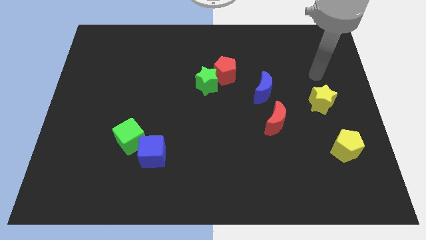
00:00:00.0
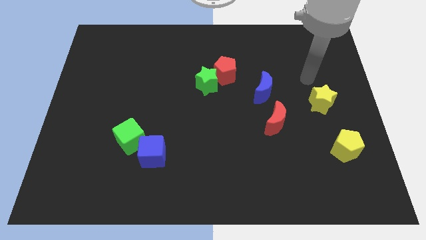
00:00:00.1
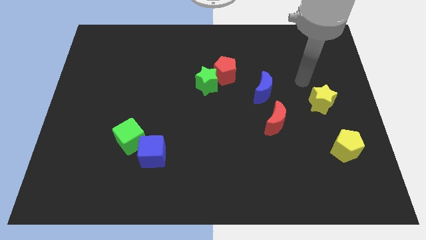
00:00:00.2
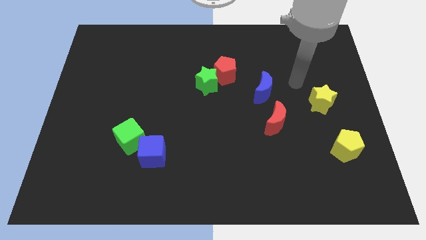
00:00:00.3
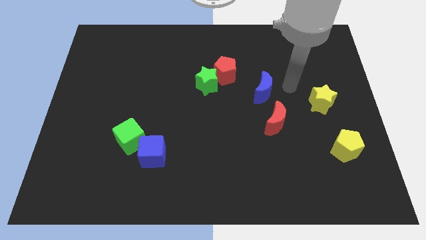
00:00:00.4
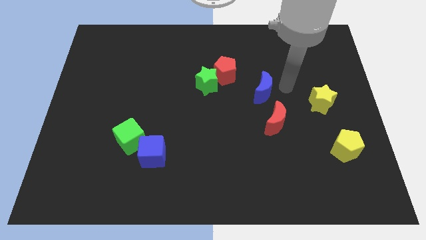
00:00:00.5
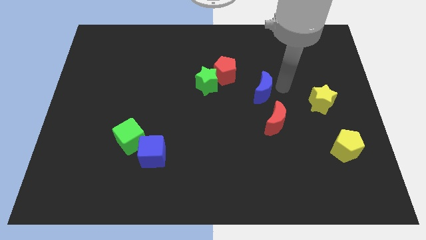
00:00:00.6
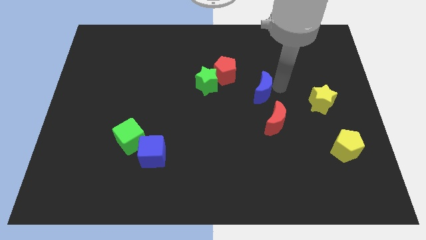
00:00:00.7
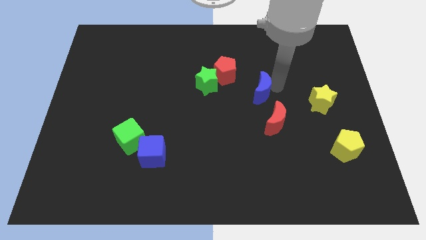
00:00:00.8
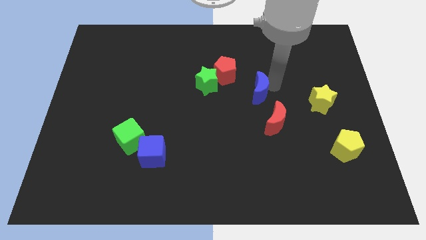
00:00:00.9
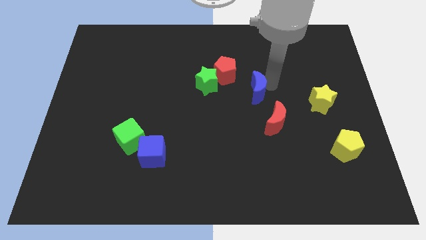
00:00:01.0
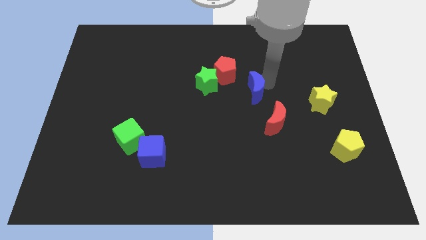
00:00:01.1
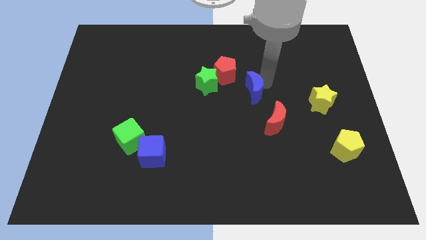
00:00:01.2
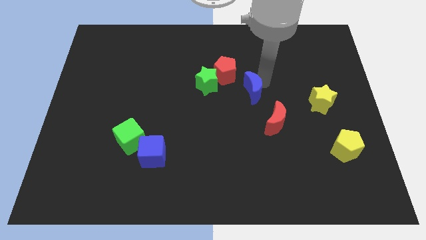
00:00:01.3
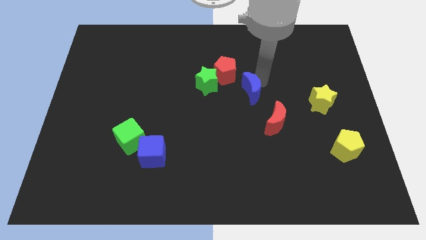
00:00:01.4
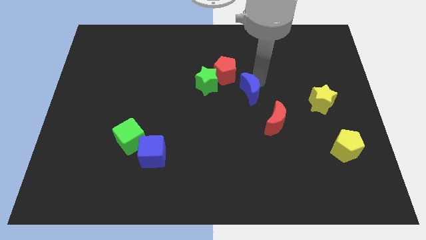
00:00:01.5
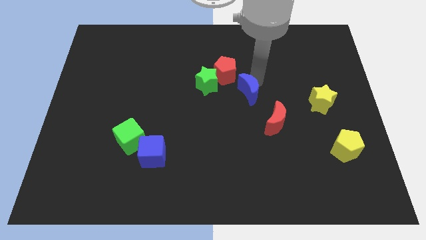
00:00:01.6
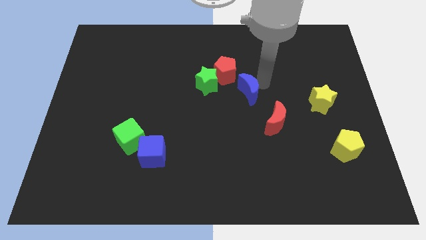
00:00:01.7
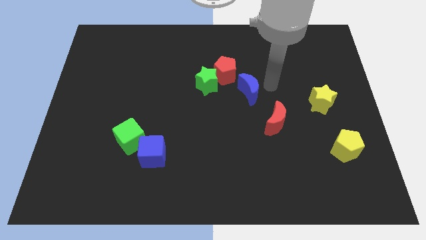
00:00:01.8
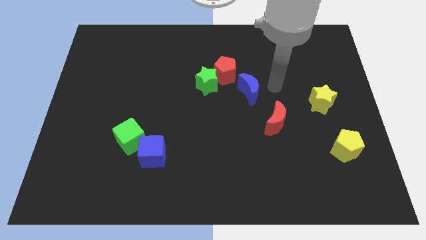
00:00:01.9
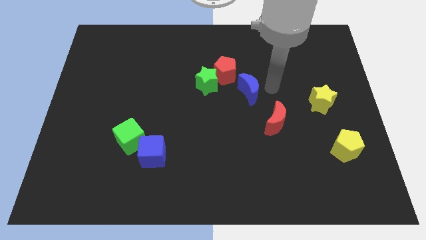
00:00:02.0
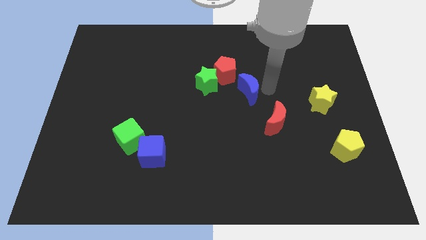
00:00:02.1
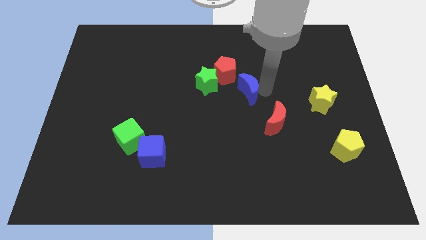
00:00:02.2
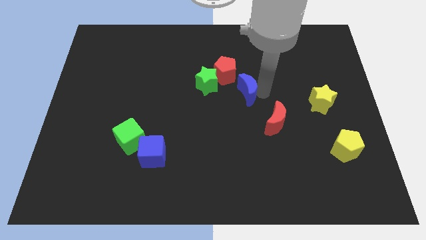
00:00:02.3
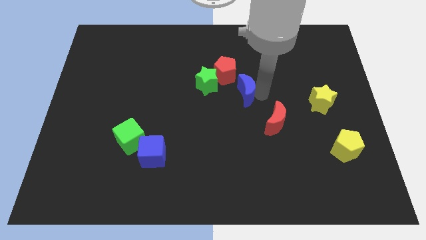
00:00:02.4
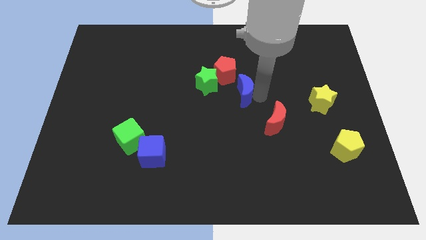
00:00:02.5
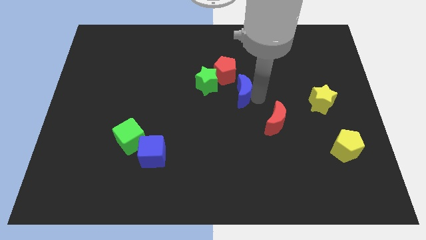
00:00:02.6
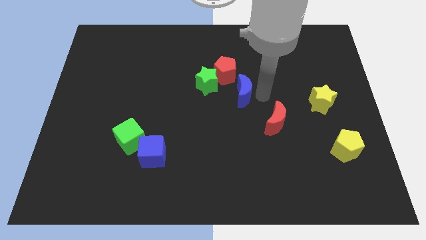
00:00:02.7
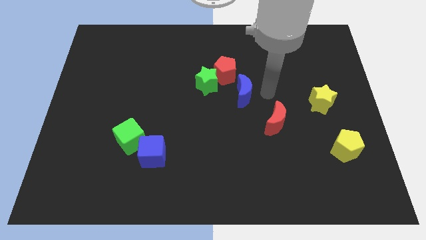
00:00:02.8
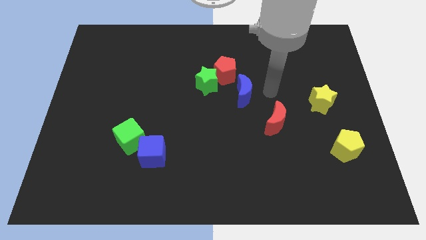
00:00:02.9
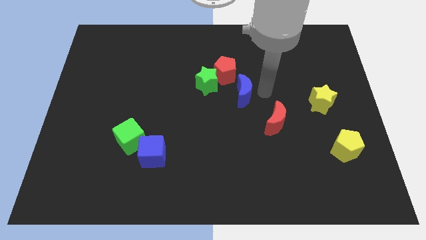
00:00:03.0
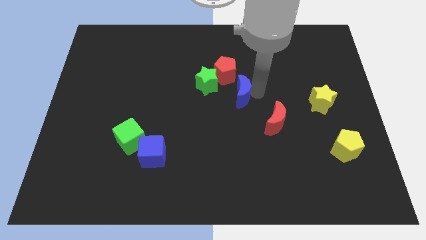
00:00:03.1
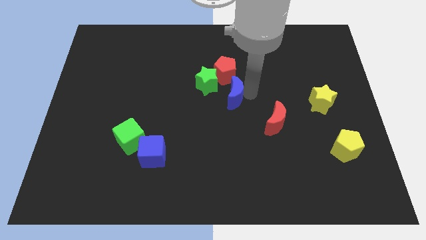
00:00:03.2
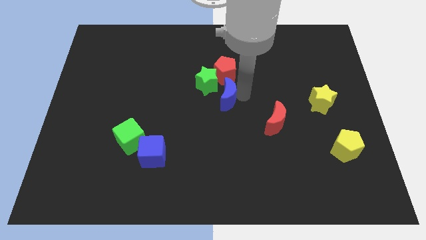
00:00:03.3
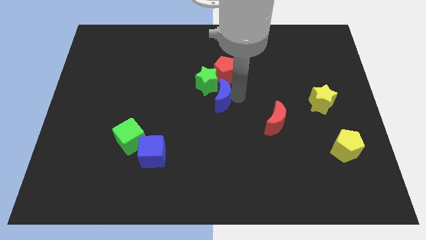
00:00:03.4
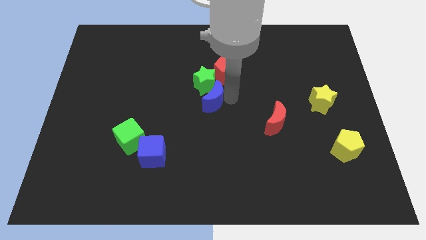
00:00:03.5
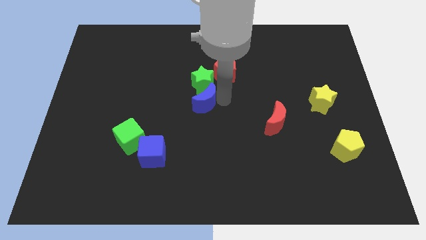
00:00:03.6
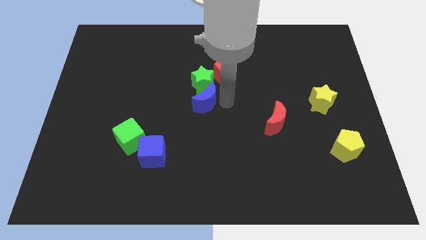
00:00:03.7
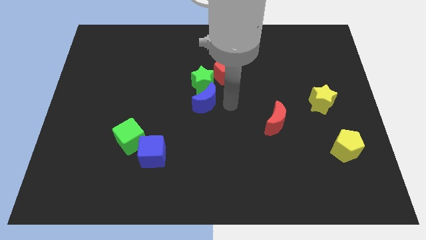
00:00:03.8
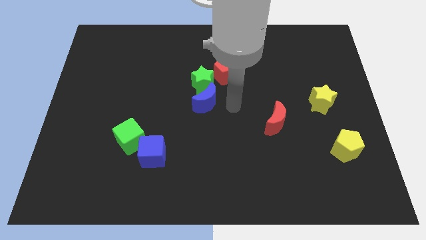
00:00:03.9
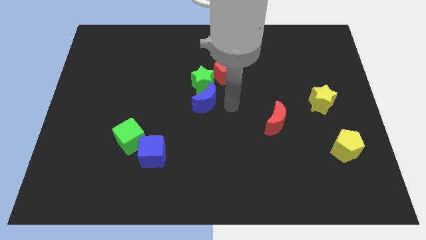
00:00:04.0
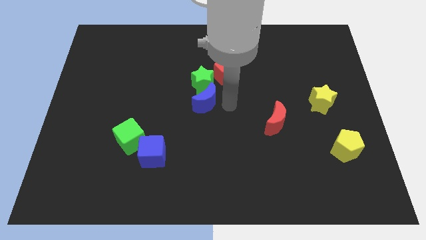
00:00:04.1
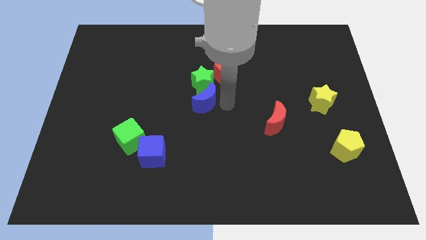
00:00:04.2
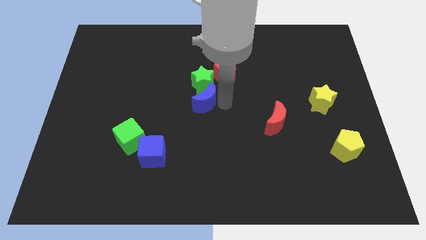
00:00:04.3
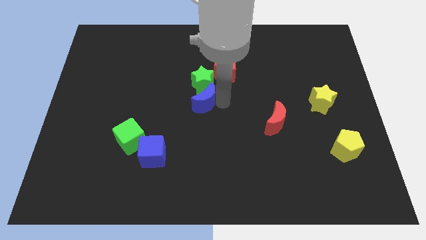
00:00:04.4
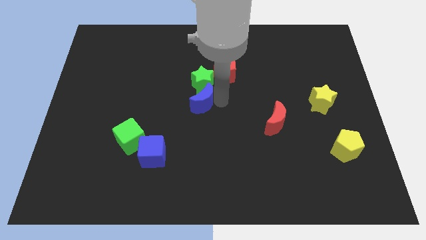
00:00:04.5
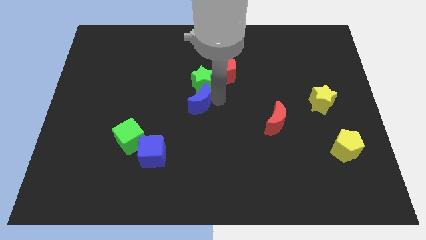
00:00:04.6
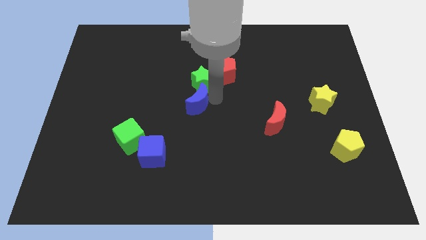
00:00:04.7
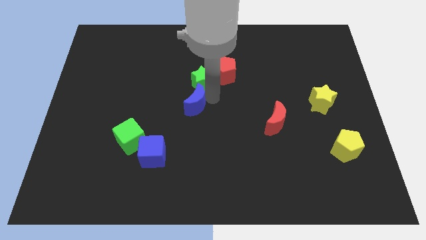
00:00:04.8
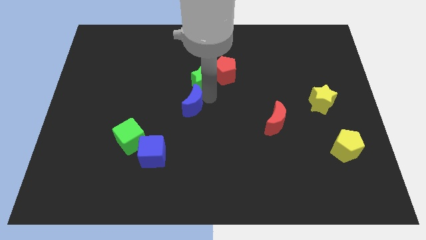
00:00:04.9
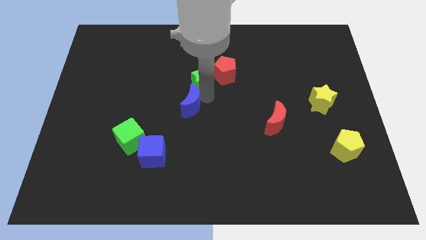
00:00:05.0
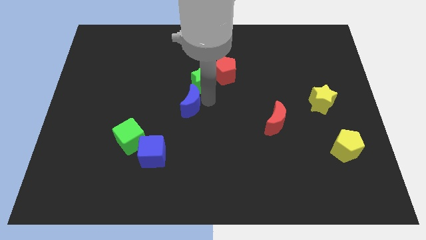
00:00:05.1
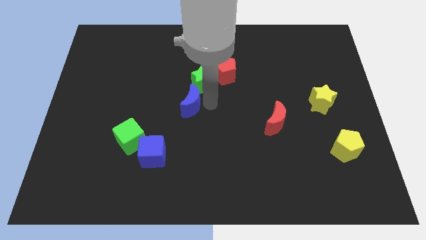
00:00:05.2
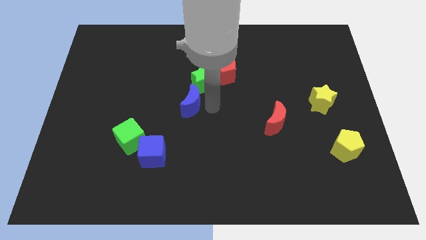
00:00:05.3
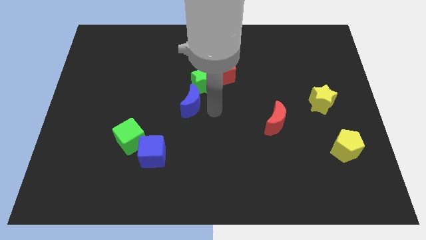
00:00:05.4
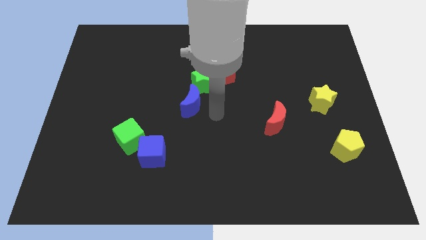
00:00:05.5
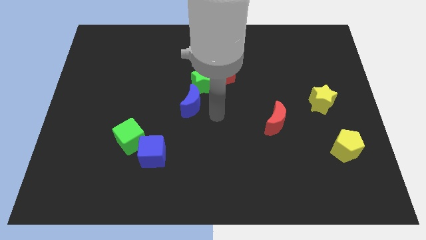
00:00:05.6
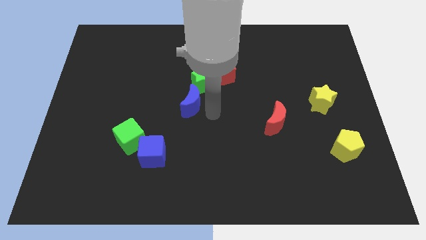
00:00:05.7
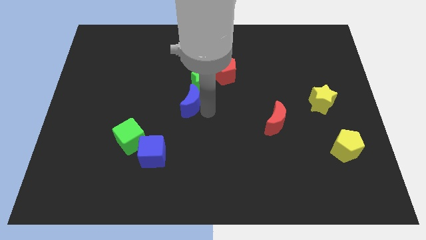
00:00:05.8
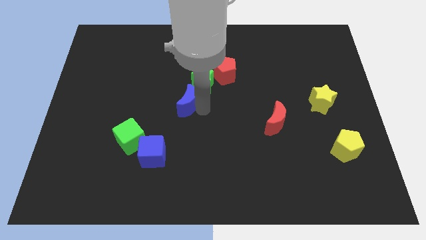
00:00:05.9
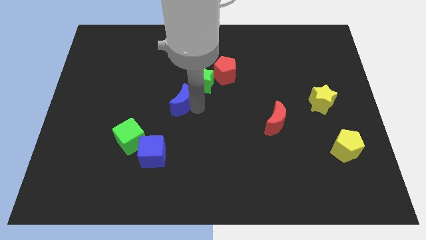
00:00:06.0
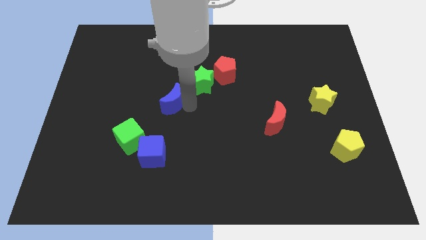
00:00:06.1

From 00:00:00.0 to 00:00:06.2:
slide the blue moon to the left

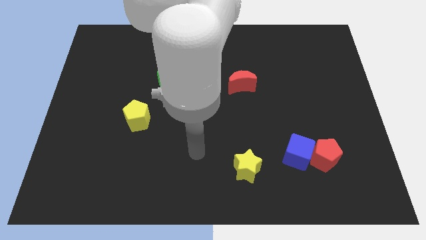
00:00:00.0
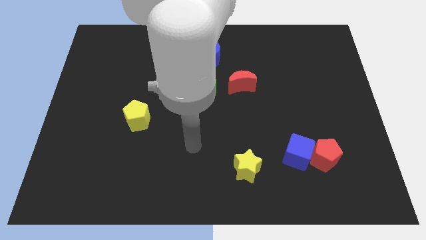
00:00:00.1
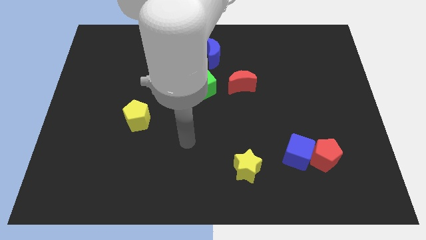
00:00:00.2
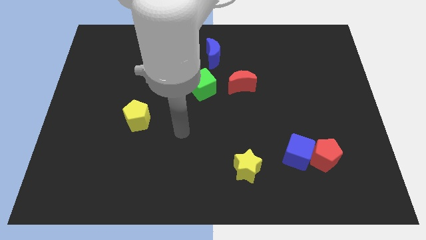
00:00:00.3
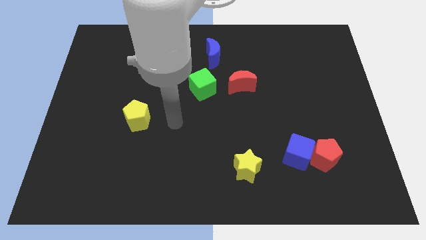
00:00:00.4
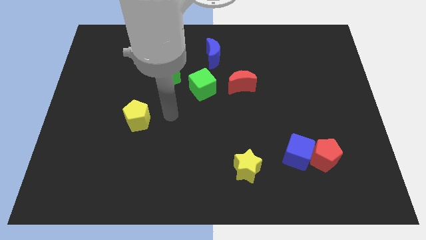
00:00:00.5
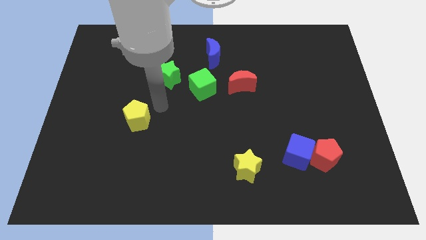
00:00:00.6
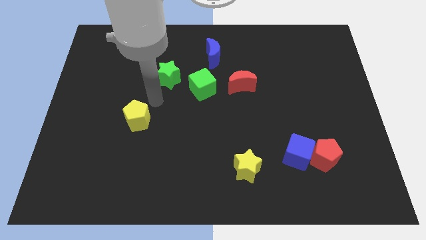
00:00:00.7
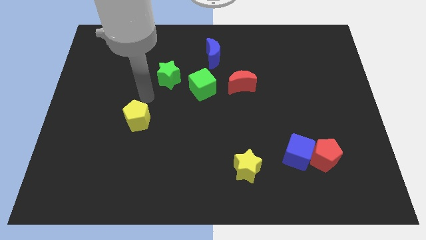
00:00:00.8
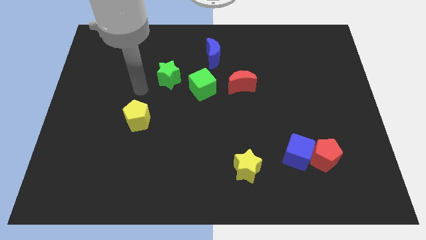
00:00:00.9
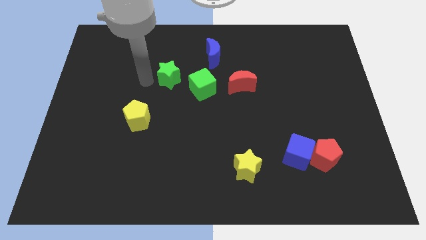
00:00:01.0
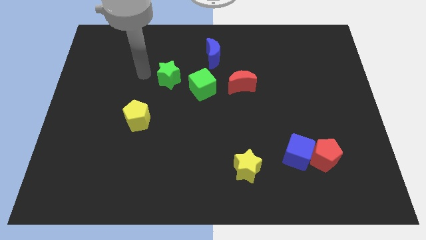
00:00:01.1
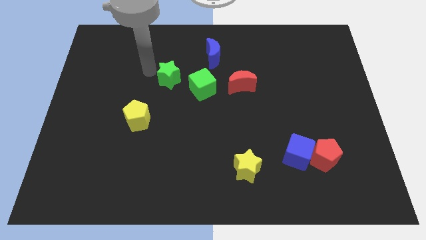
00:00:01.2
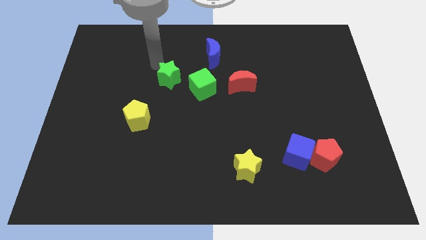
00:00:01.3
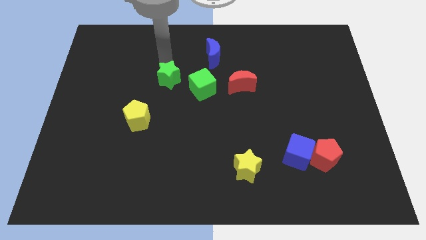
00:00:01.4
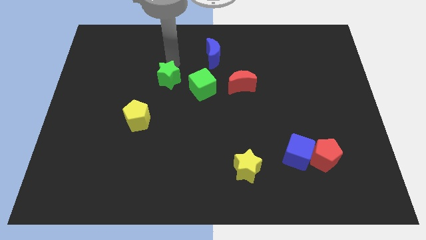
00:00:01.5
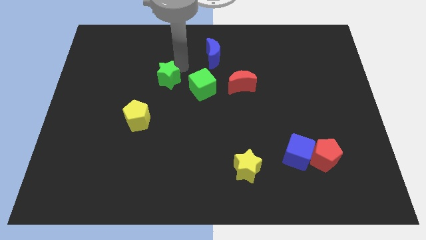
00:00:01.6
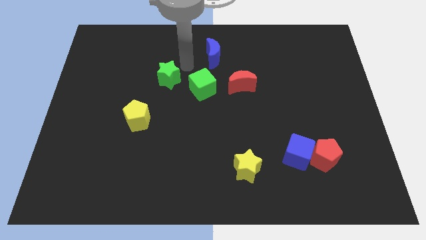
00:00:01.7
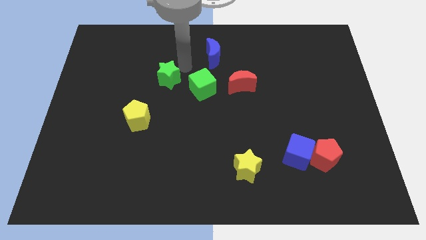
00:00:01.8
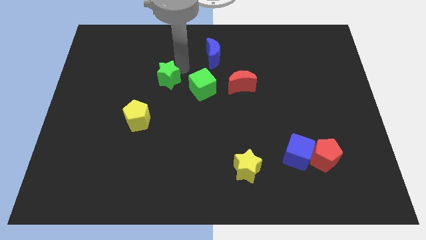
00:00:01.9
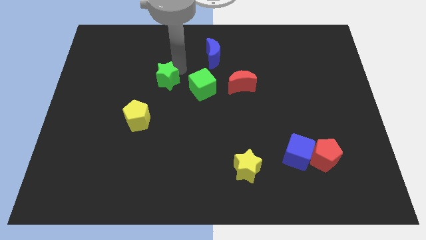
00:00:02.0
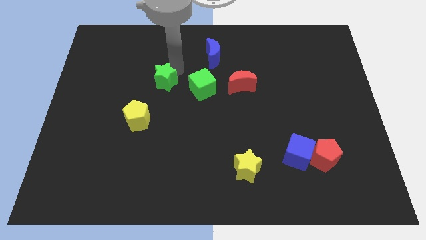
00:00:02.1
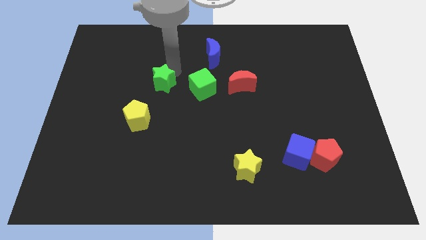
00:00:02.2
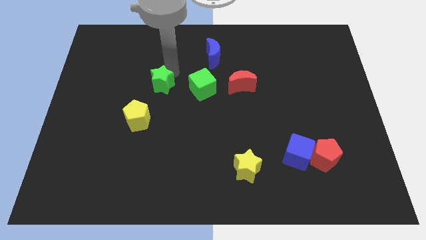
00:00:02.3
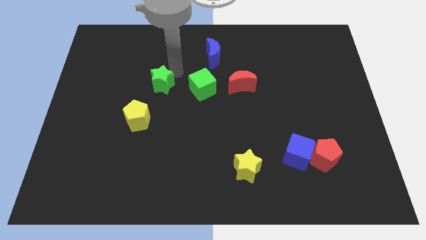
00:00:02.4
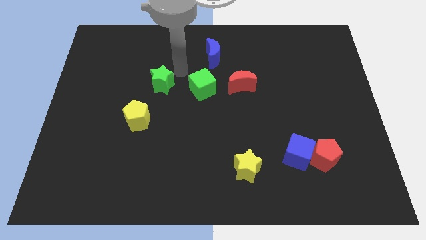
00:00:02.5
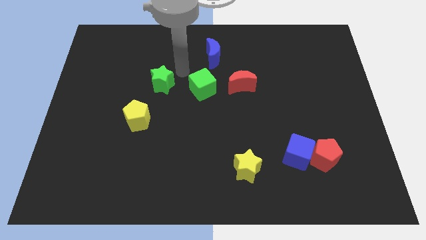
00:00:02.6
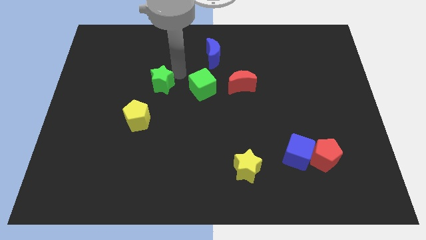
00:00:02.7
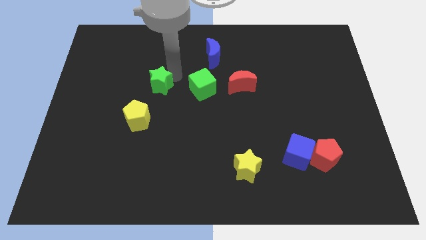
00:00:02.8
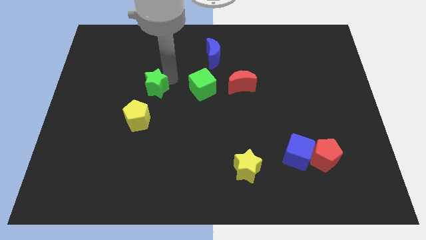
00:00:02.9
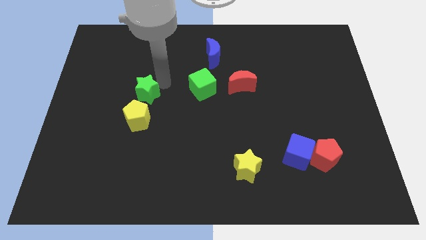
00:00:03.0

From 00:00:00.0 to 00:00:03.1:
move the green star downwards and then left somewhat
